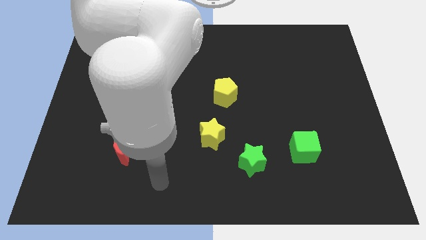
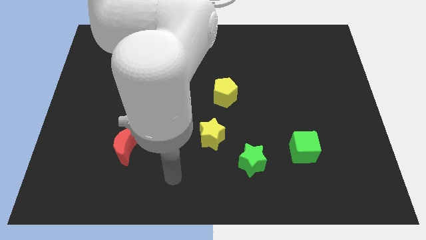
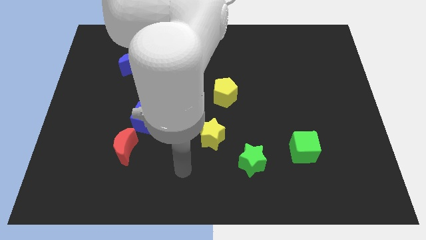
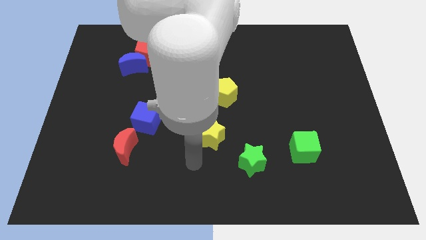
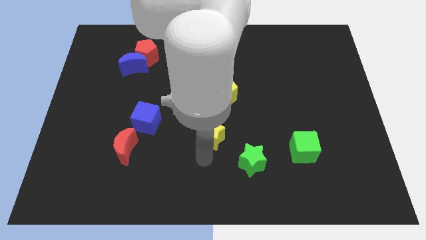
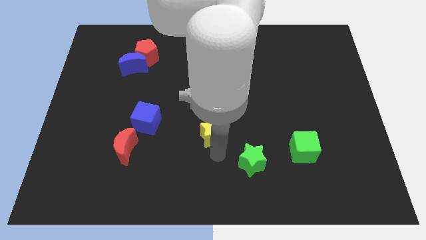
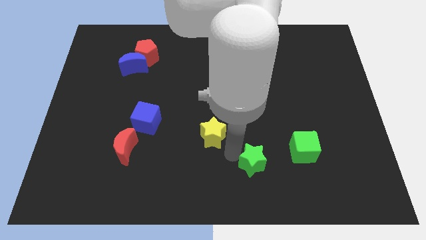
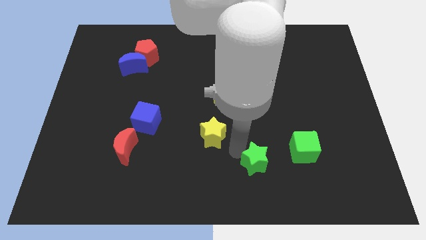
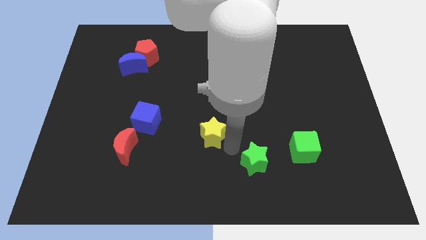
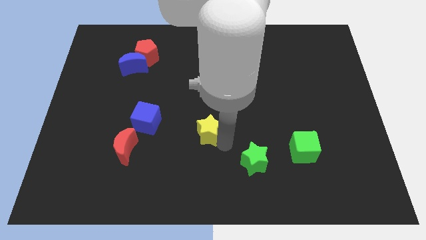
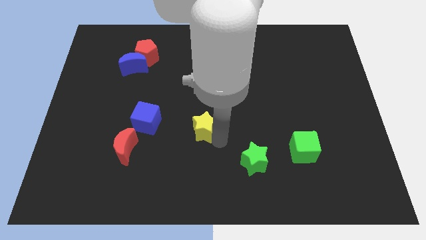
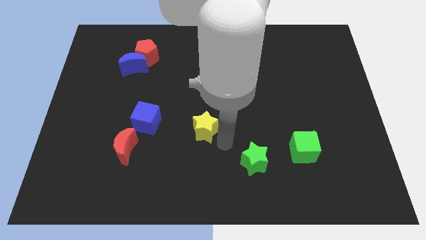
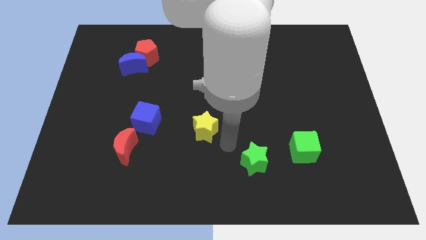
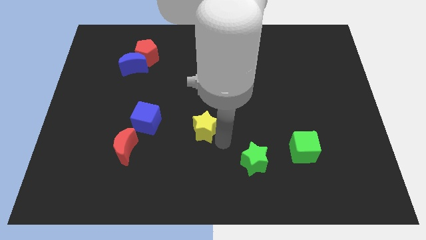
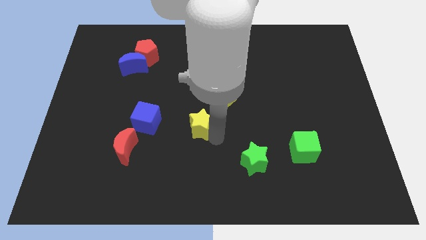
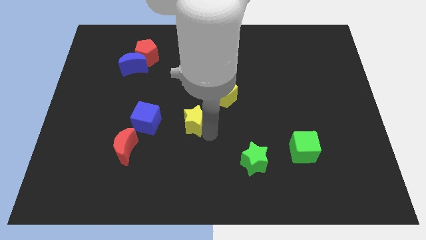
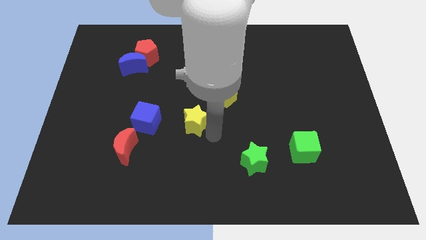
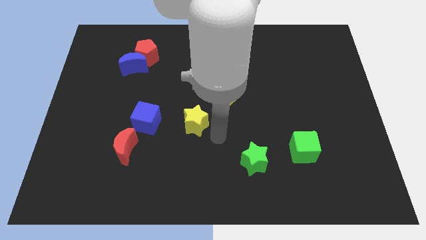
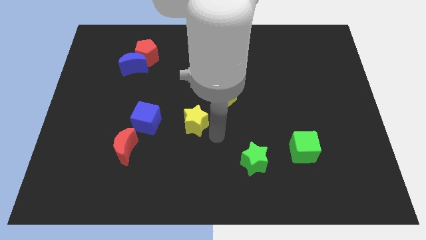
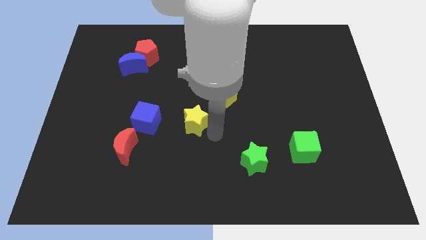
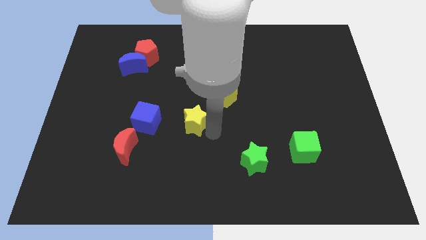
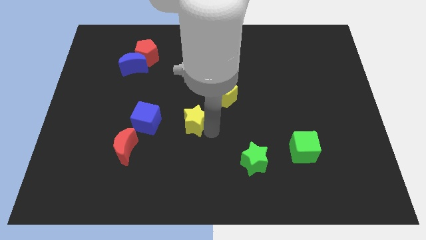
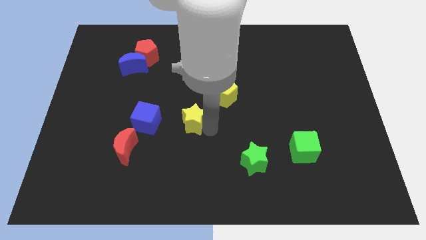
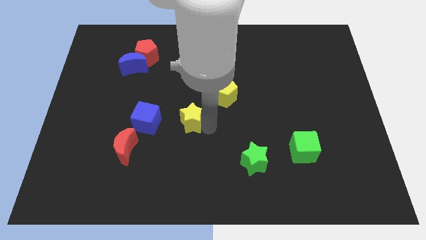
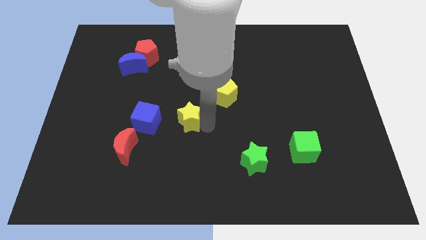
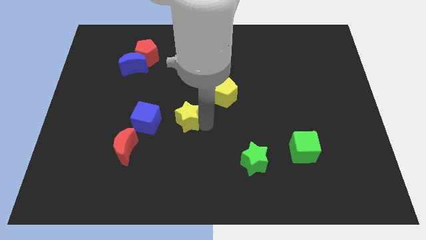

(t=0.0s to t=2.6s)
slide the yellow star a bit upwards and then left

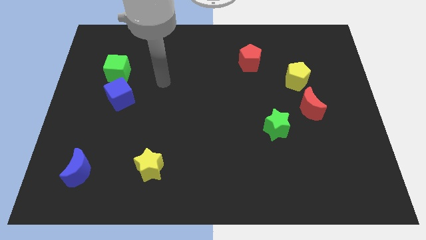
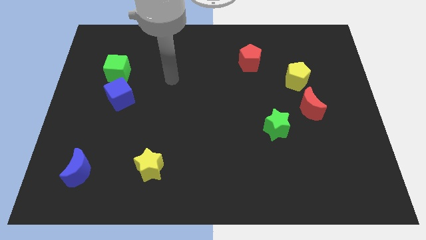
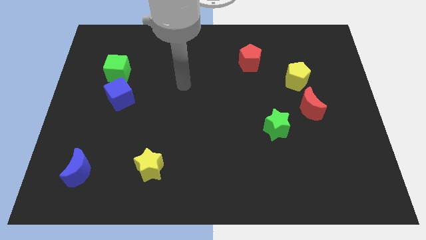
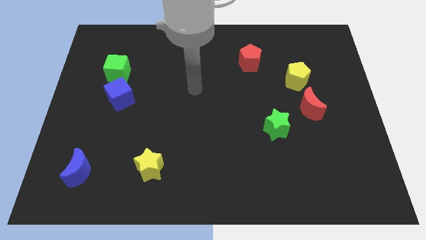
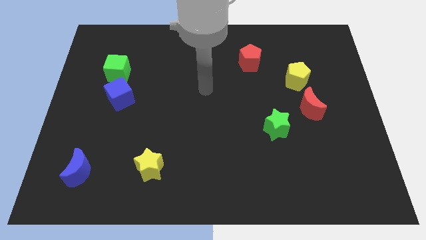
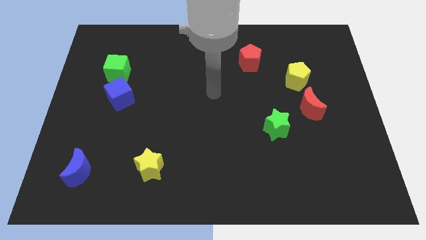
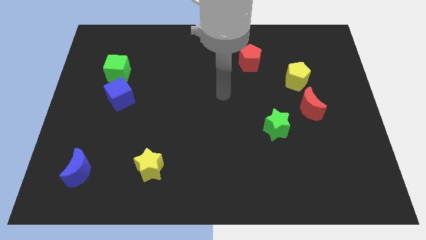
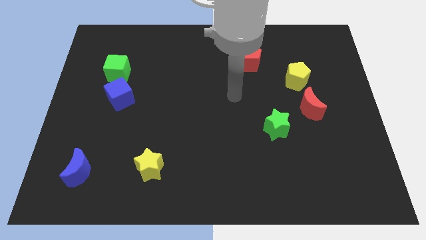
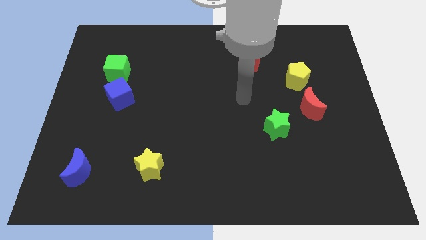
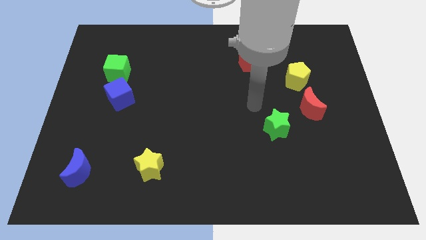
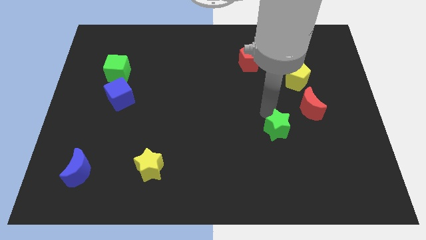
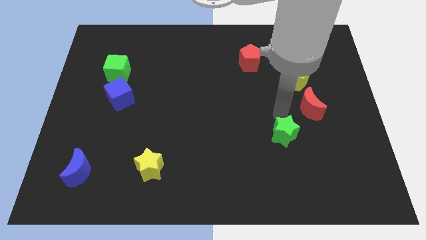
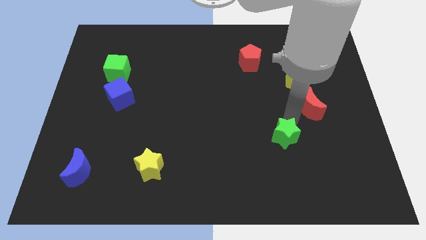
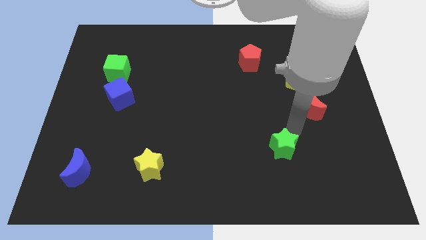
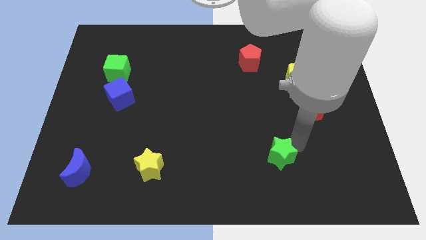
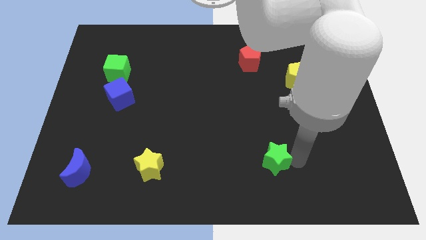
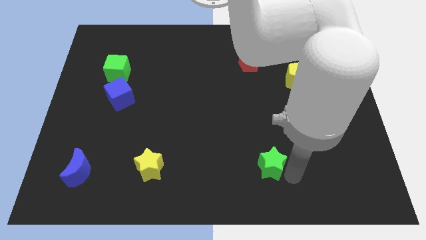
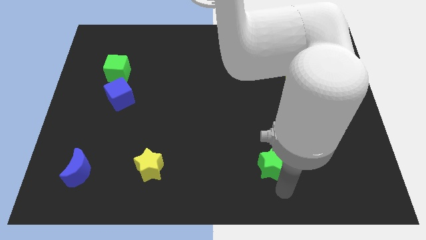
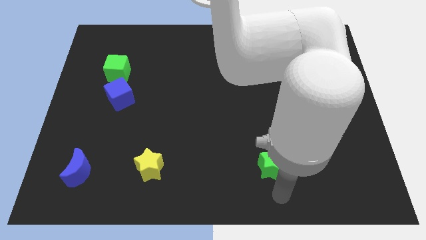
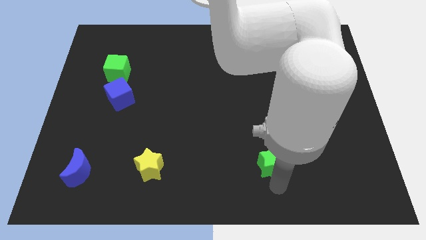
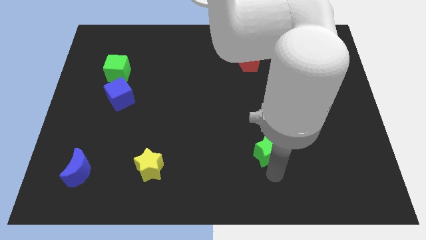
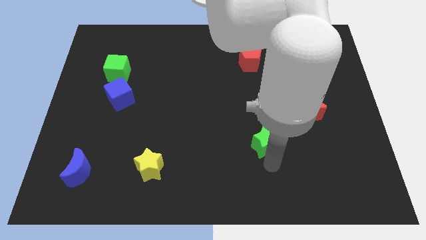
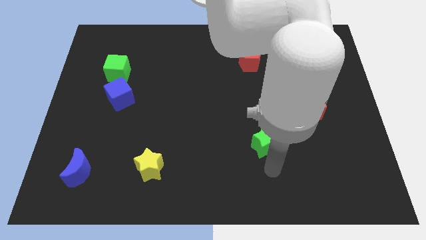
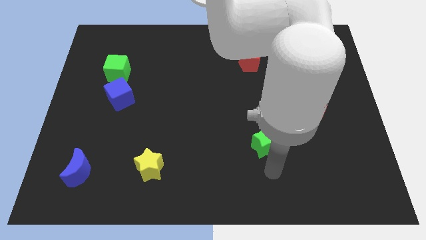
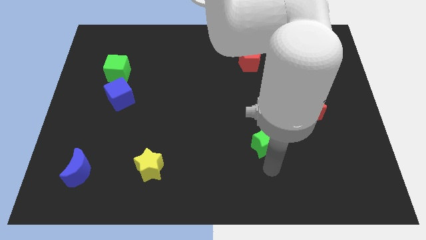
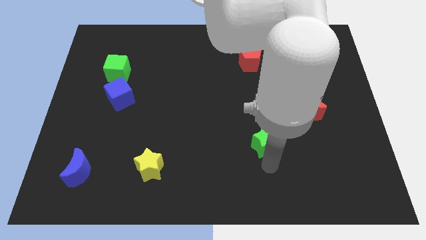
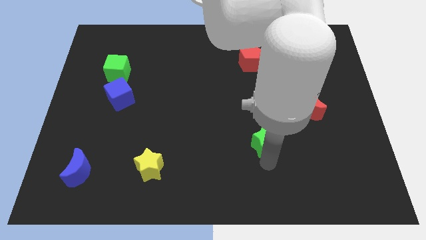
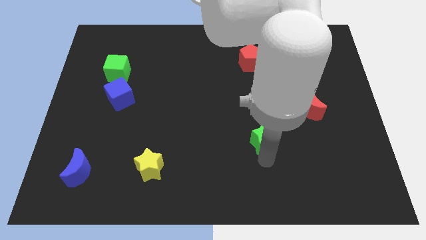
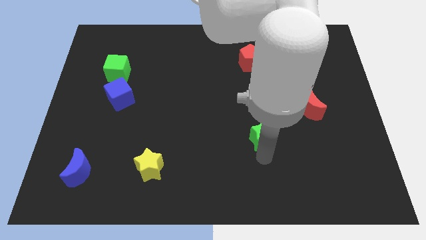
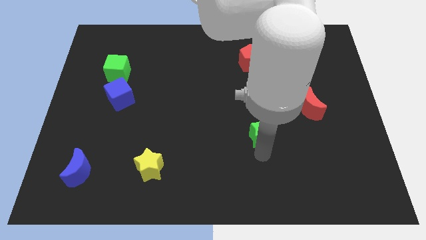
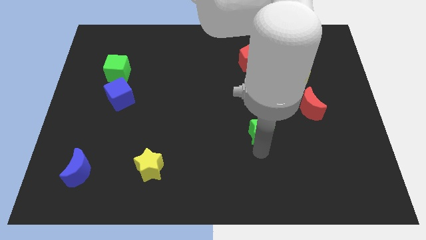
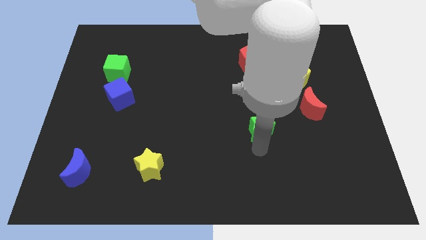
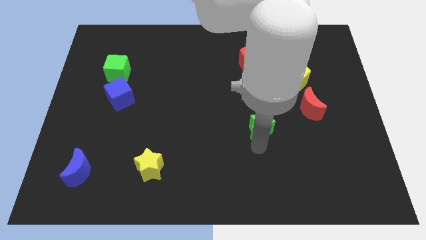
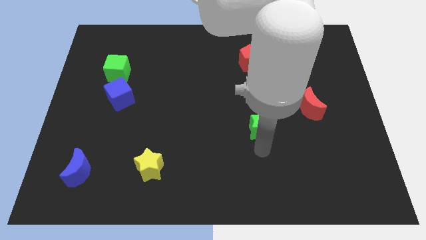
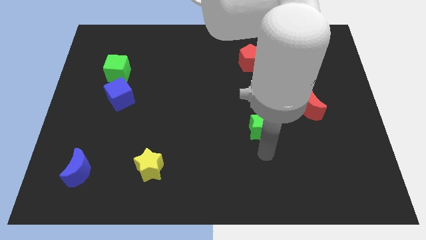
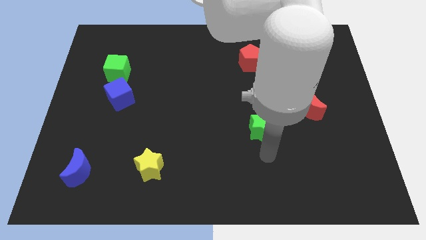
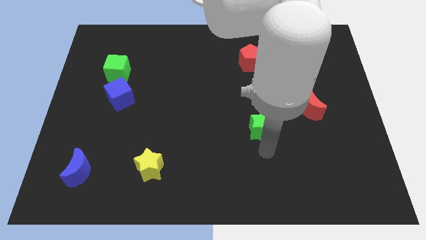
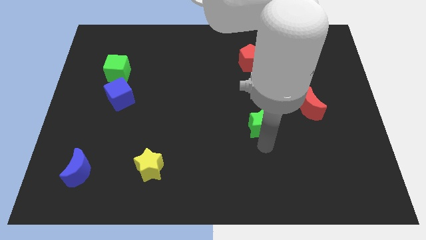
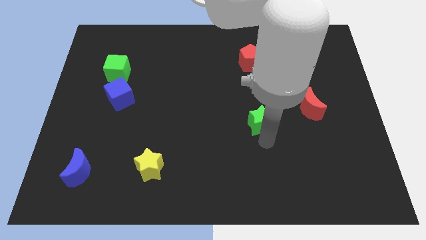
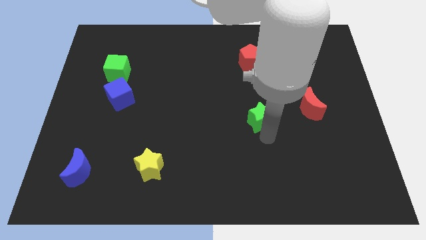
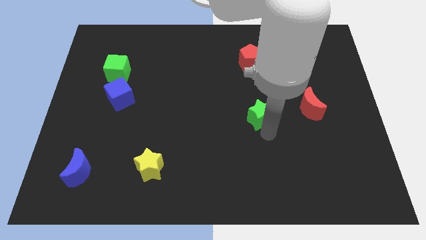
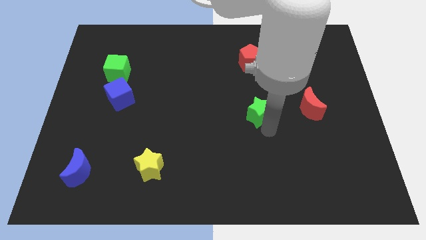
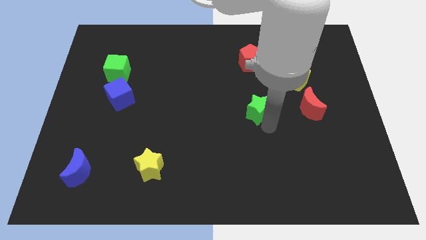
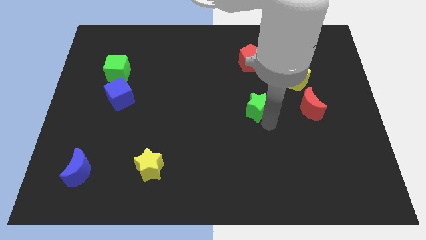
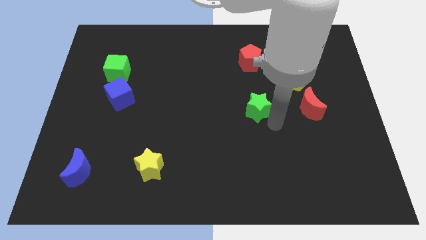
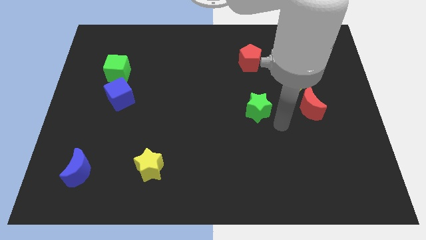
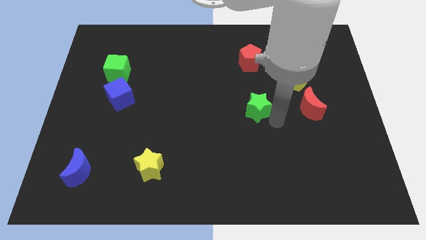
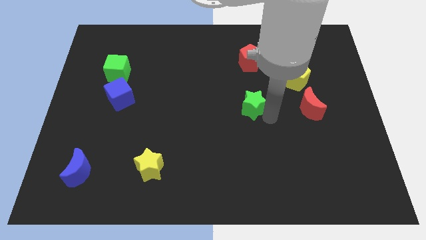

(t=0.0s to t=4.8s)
slide the green star upwards and to the left diagonally a little bit
